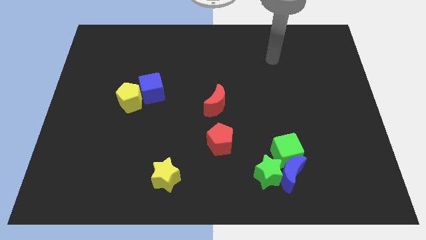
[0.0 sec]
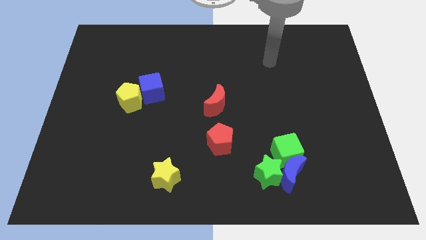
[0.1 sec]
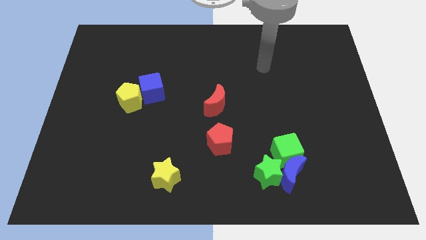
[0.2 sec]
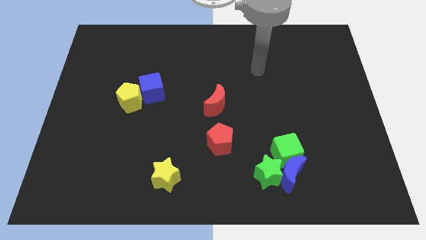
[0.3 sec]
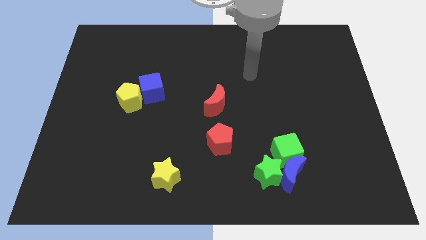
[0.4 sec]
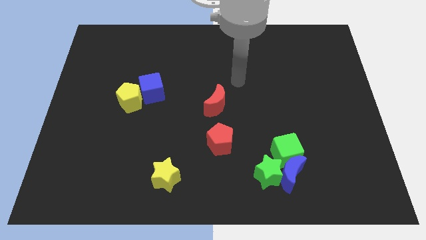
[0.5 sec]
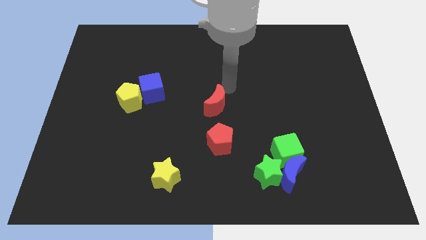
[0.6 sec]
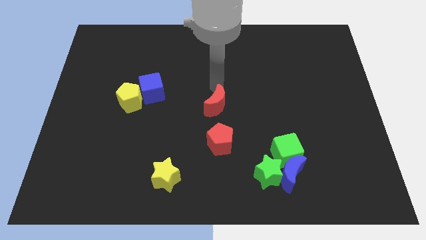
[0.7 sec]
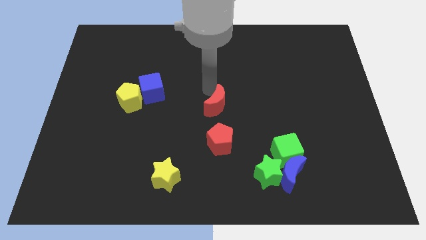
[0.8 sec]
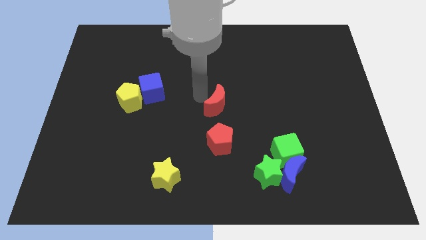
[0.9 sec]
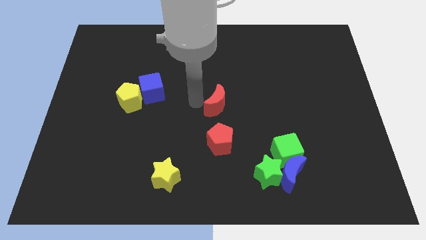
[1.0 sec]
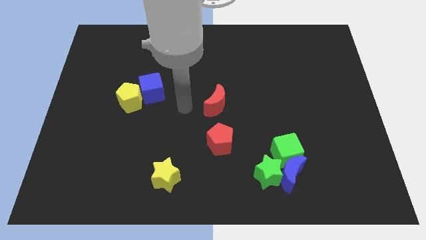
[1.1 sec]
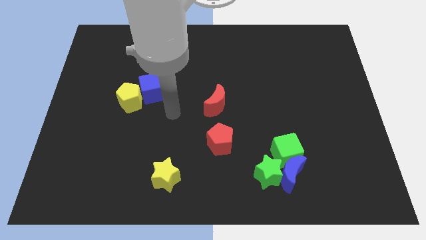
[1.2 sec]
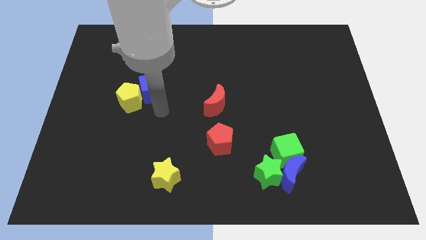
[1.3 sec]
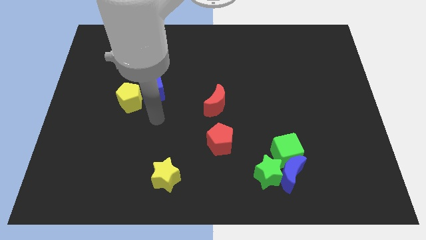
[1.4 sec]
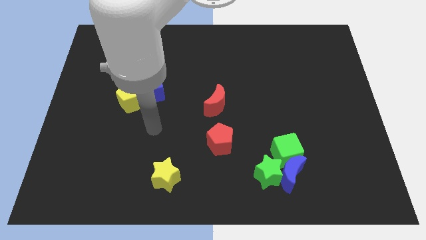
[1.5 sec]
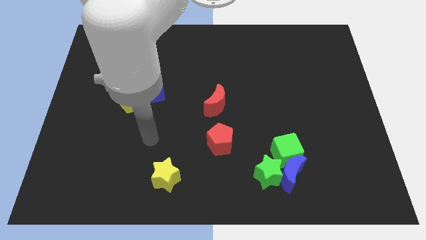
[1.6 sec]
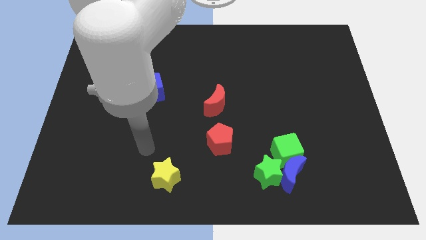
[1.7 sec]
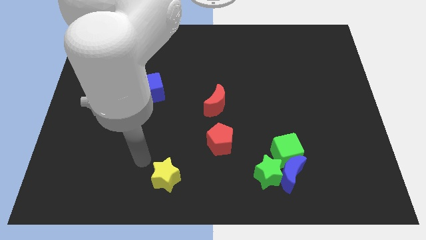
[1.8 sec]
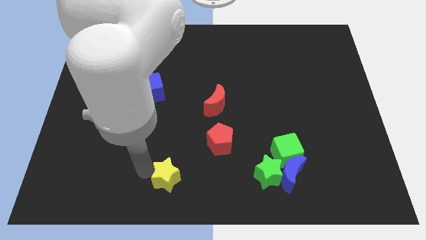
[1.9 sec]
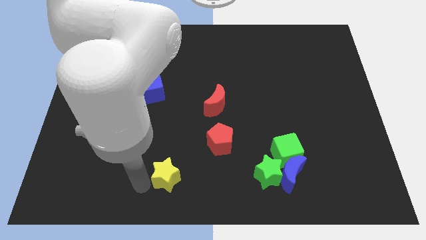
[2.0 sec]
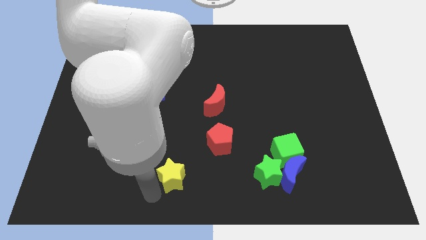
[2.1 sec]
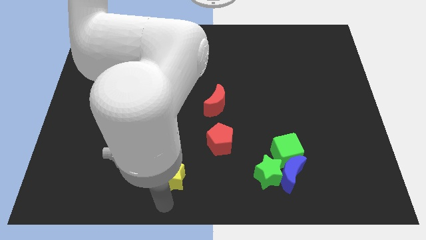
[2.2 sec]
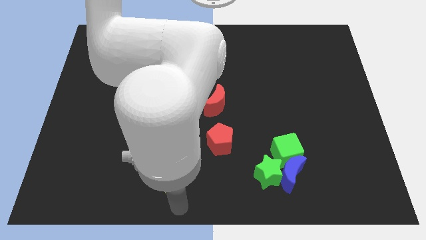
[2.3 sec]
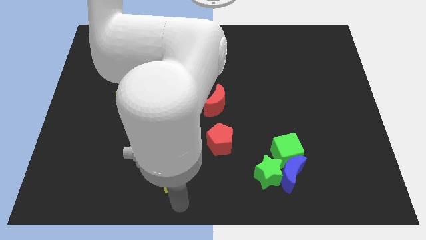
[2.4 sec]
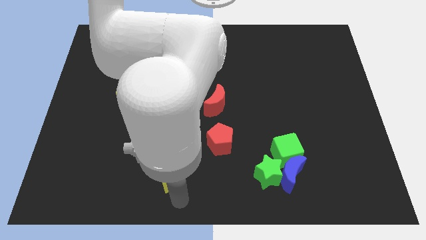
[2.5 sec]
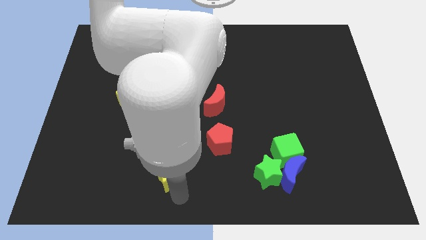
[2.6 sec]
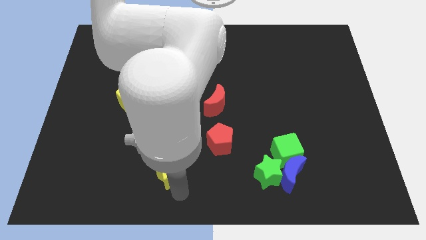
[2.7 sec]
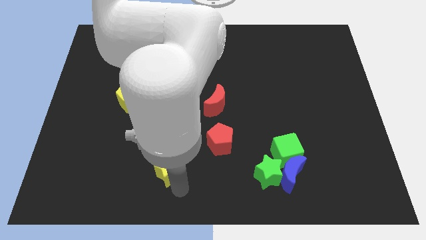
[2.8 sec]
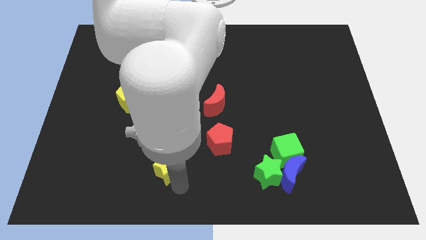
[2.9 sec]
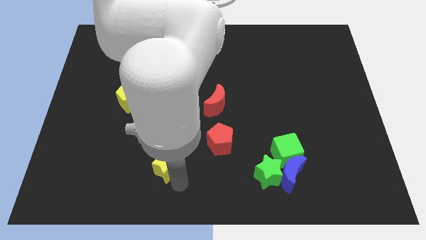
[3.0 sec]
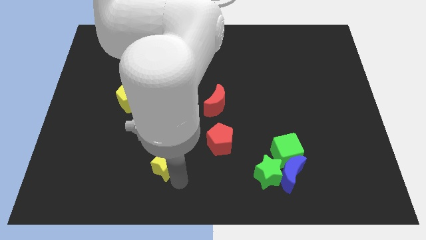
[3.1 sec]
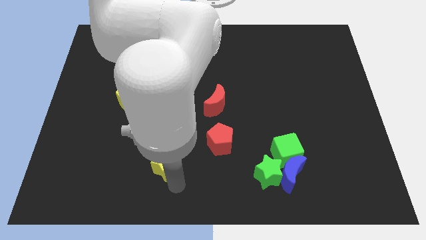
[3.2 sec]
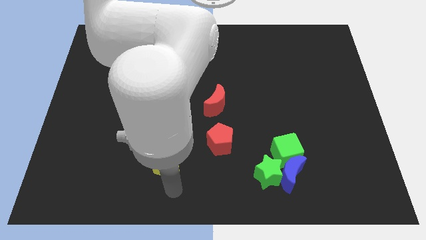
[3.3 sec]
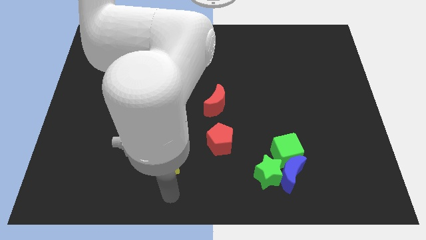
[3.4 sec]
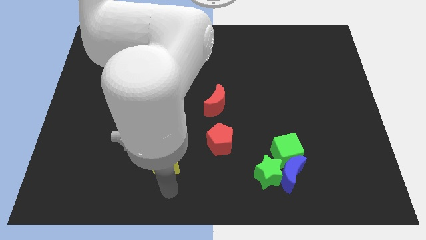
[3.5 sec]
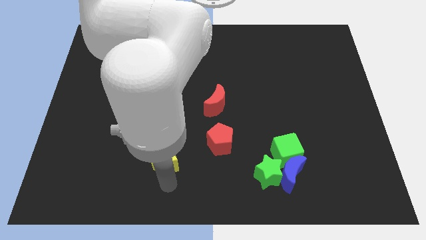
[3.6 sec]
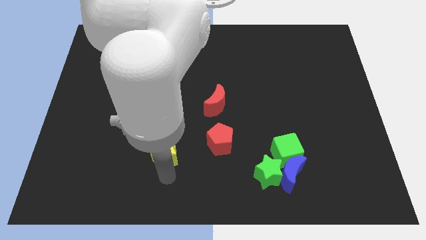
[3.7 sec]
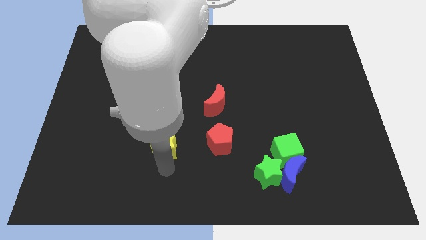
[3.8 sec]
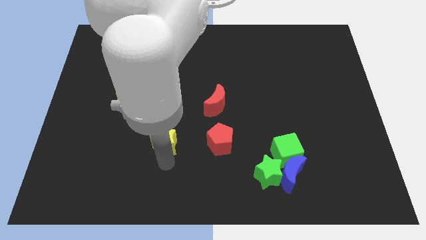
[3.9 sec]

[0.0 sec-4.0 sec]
slightly move the yellow star up

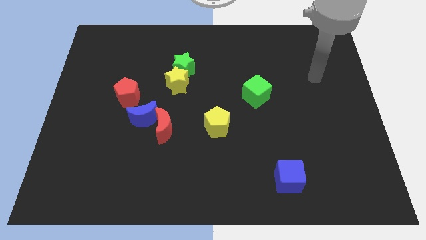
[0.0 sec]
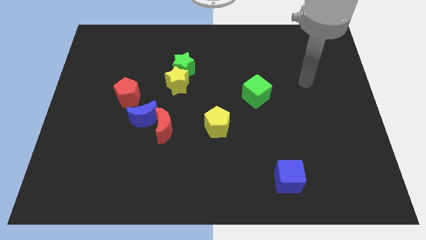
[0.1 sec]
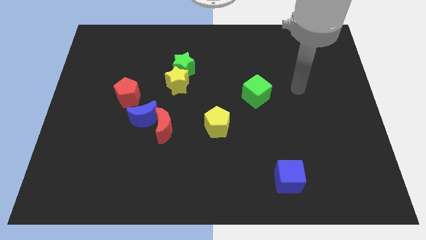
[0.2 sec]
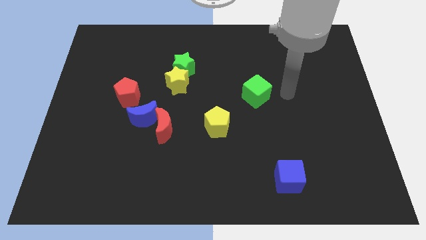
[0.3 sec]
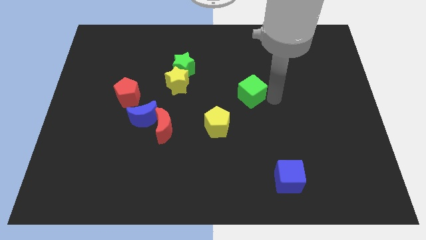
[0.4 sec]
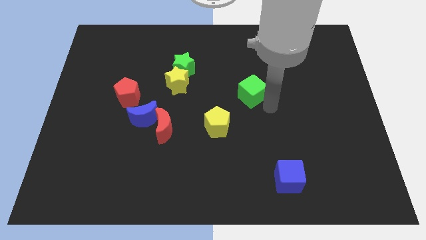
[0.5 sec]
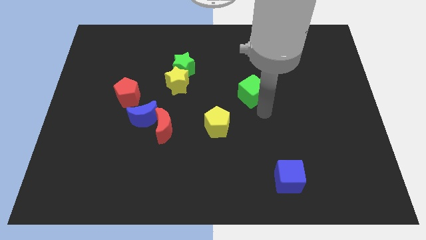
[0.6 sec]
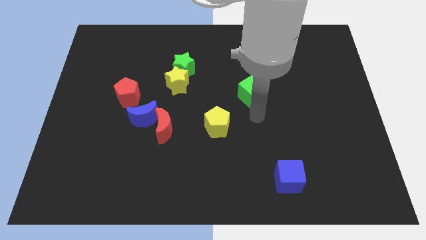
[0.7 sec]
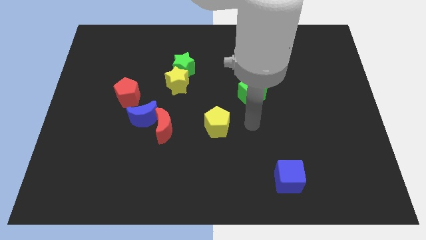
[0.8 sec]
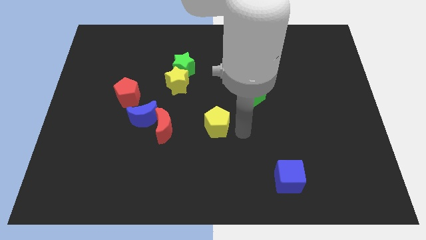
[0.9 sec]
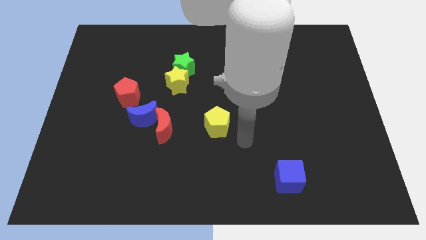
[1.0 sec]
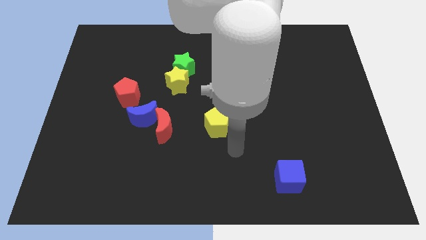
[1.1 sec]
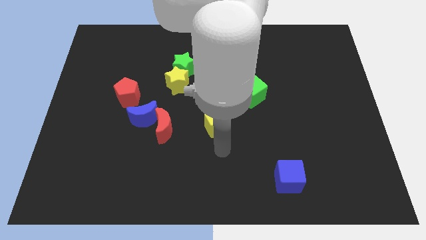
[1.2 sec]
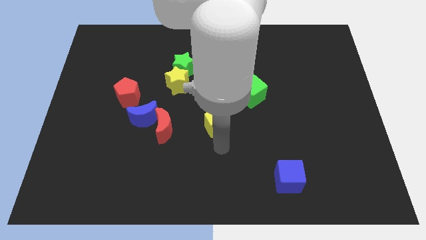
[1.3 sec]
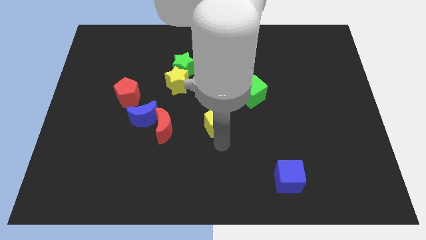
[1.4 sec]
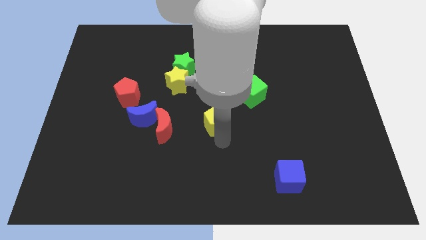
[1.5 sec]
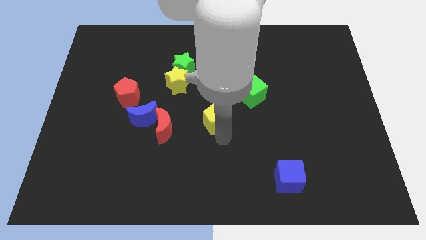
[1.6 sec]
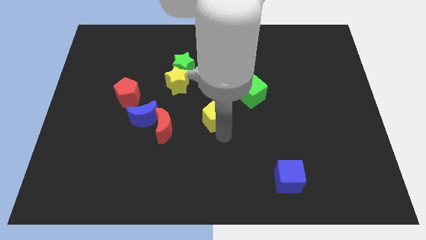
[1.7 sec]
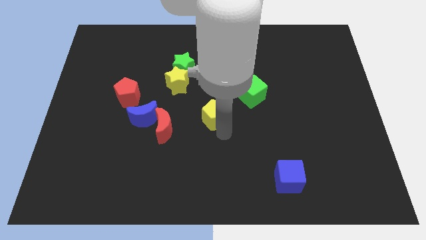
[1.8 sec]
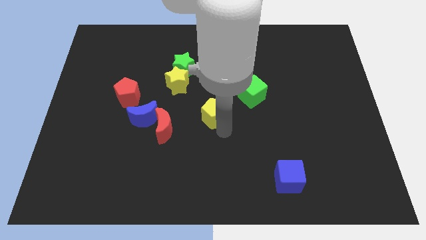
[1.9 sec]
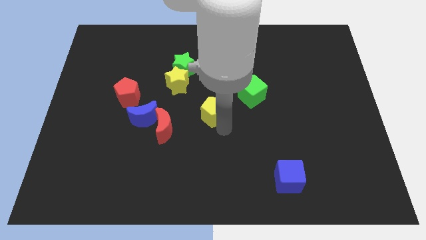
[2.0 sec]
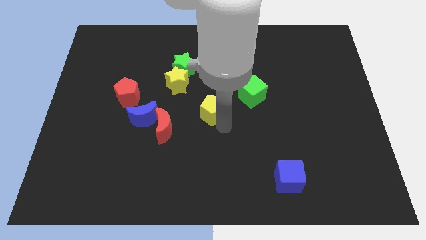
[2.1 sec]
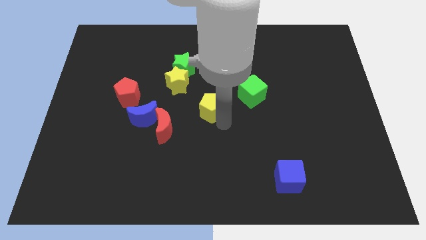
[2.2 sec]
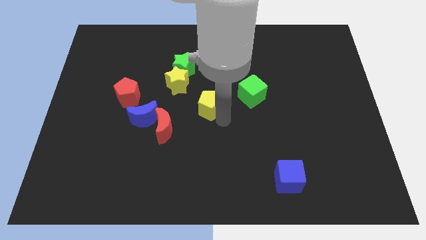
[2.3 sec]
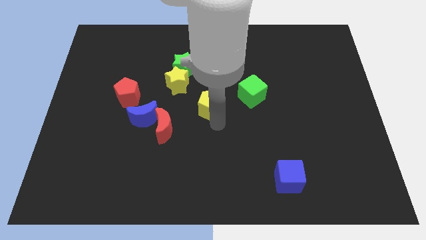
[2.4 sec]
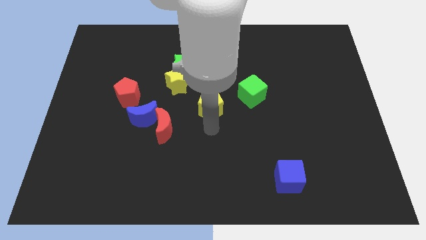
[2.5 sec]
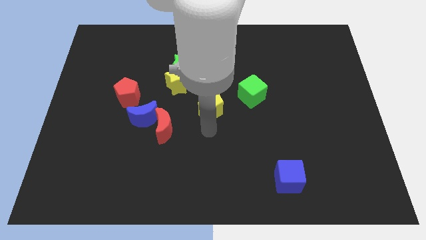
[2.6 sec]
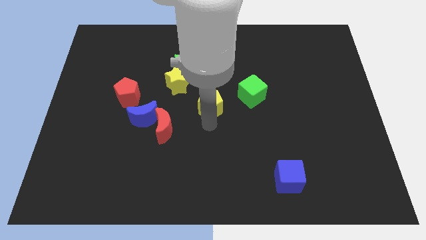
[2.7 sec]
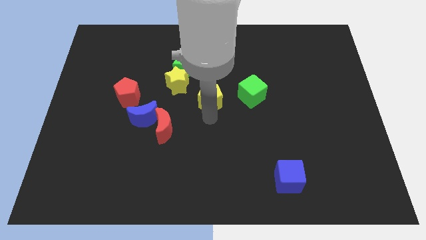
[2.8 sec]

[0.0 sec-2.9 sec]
slide the yellow pentagon upwards slightly

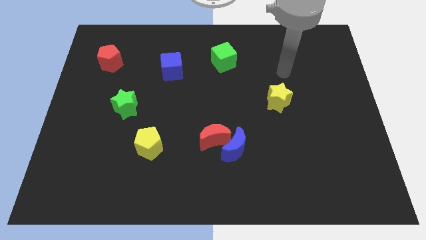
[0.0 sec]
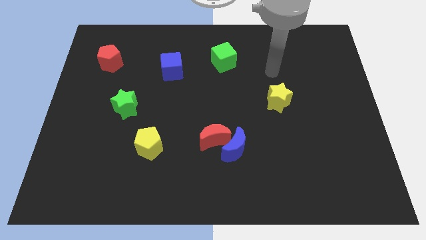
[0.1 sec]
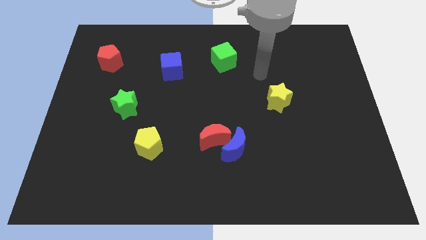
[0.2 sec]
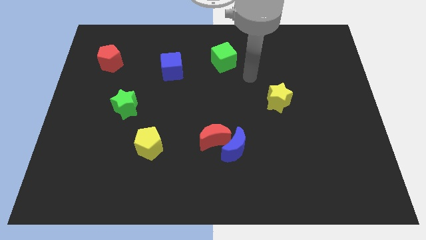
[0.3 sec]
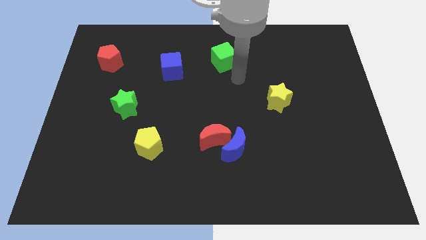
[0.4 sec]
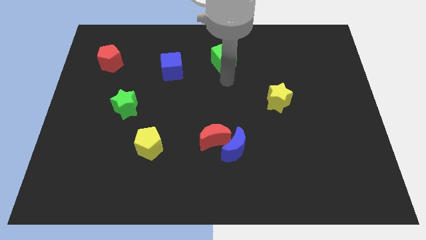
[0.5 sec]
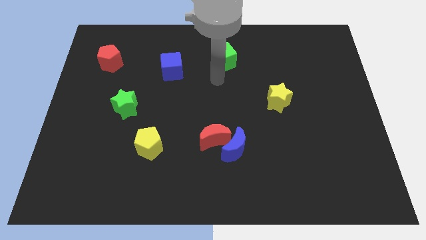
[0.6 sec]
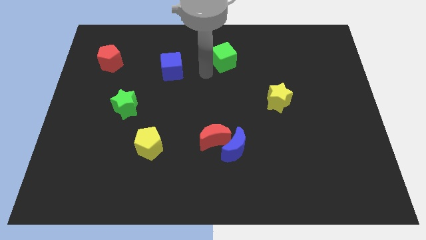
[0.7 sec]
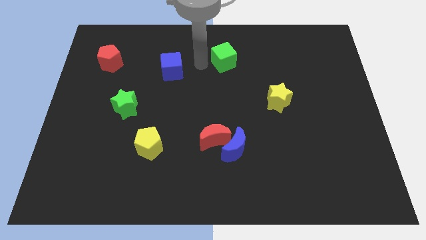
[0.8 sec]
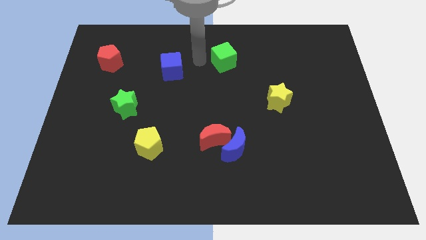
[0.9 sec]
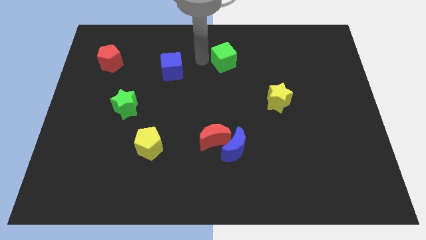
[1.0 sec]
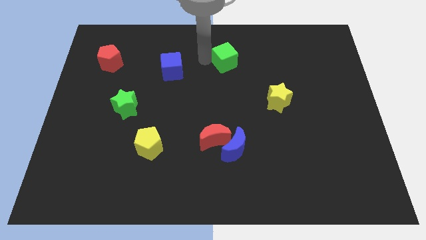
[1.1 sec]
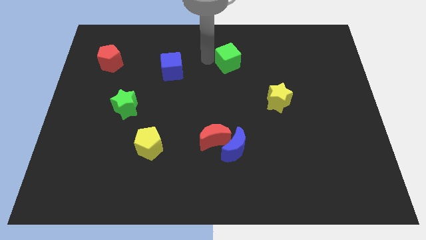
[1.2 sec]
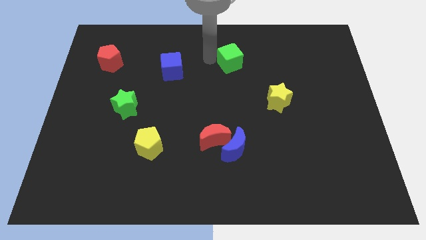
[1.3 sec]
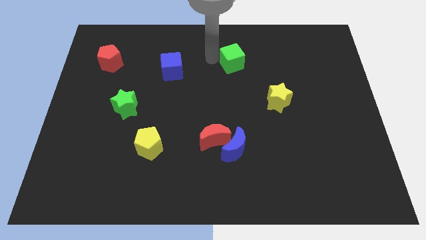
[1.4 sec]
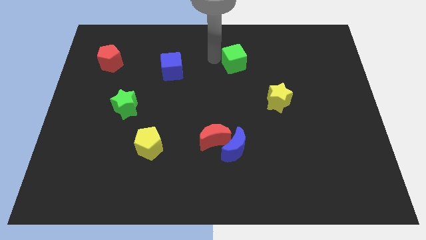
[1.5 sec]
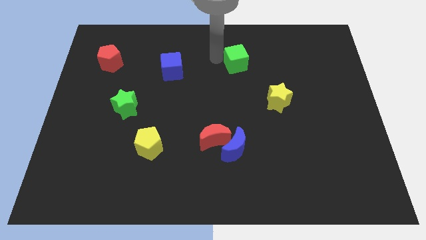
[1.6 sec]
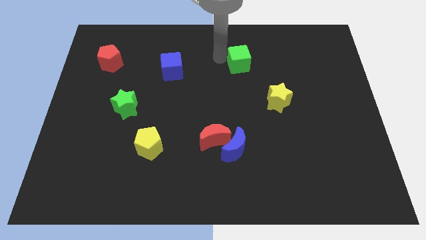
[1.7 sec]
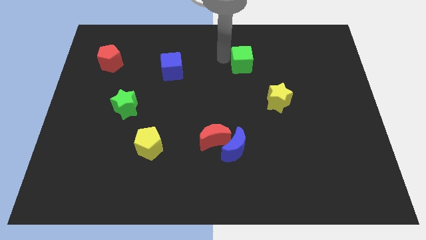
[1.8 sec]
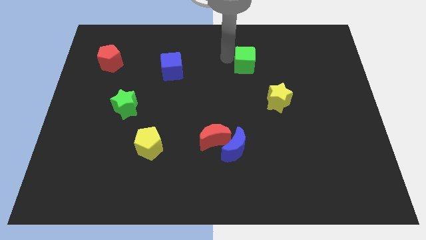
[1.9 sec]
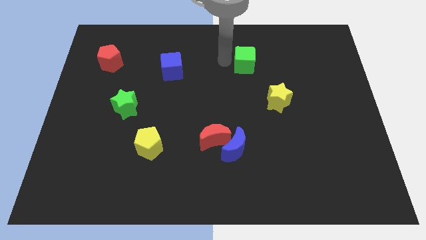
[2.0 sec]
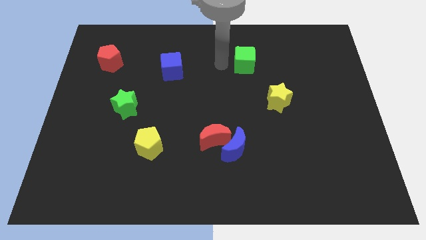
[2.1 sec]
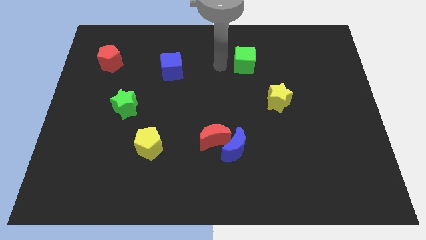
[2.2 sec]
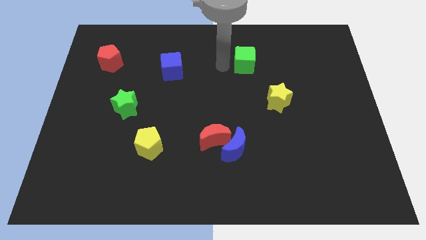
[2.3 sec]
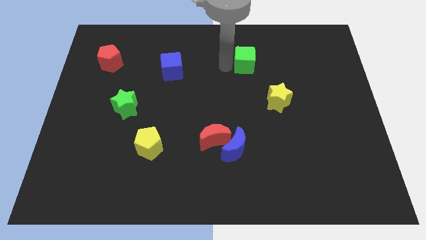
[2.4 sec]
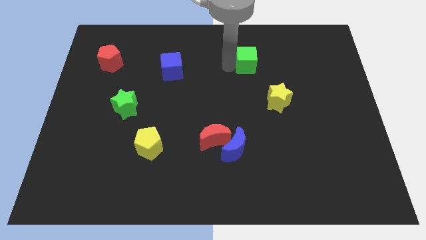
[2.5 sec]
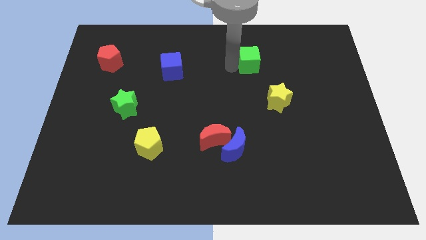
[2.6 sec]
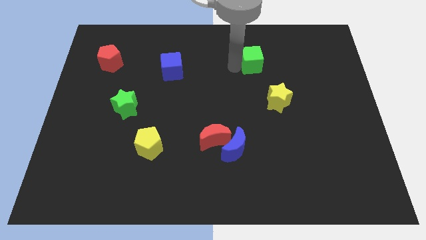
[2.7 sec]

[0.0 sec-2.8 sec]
push the green cube right a little bit
